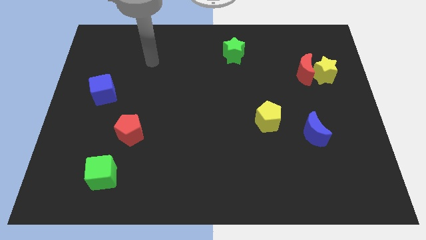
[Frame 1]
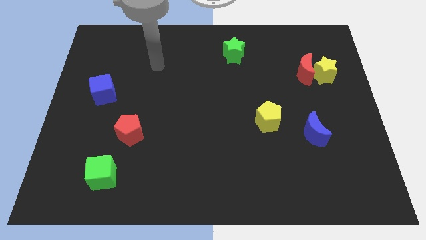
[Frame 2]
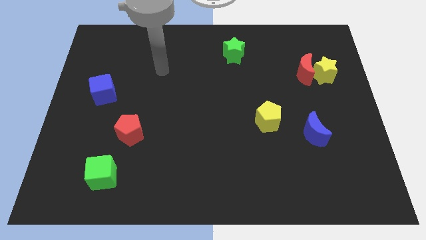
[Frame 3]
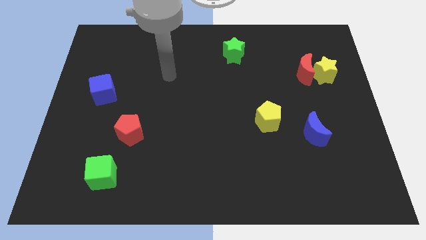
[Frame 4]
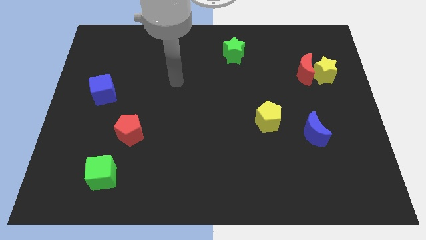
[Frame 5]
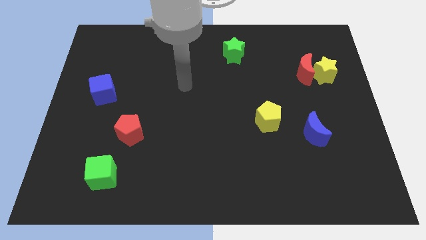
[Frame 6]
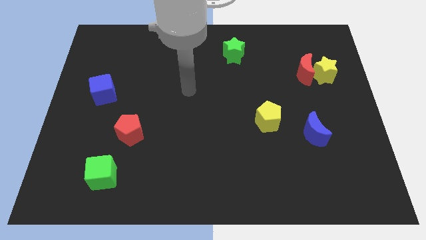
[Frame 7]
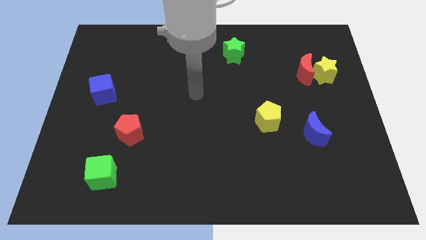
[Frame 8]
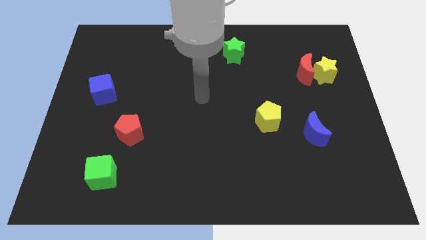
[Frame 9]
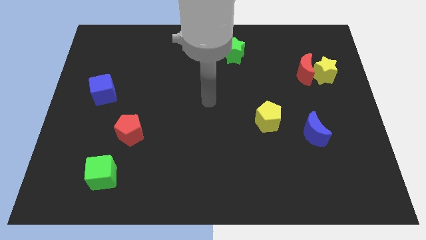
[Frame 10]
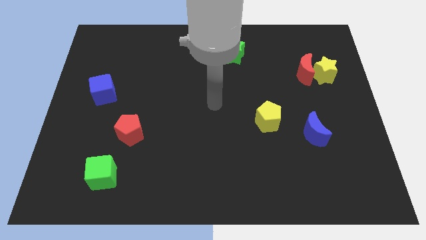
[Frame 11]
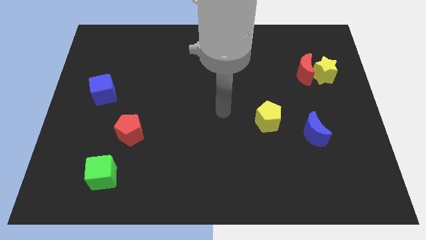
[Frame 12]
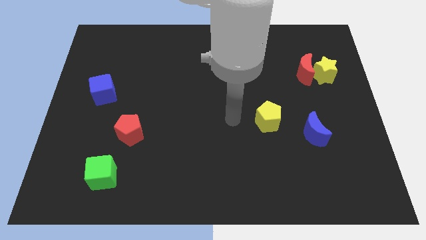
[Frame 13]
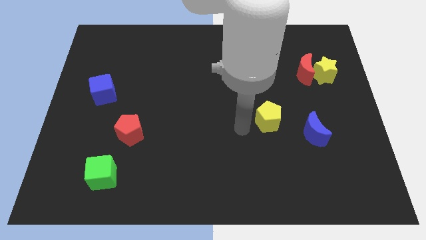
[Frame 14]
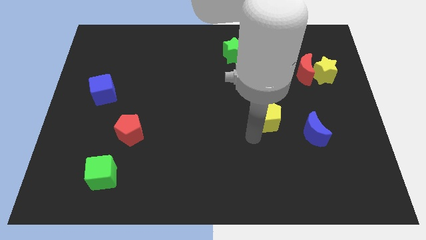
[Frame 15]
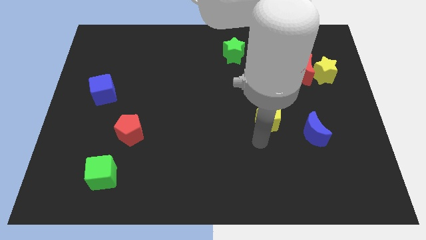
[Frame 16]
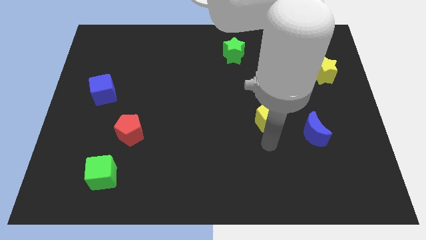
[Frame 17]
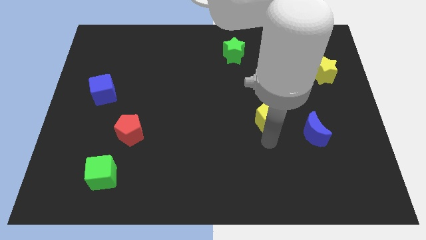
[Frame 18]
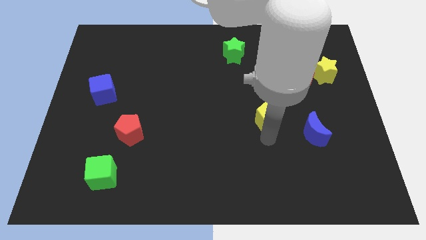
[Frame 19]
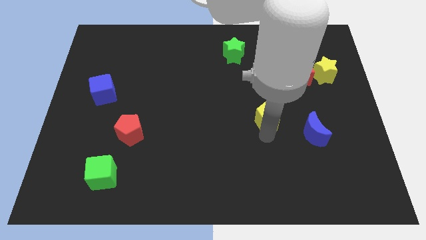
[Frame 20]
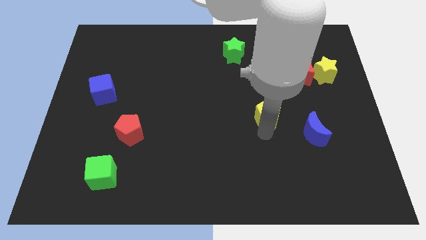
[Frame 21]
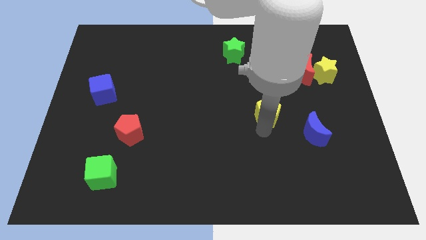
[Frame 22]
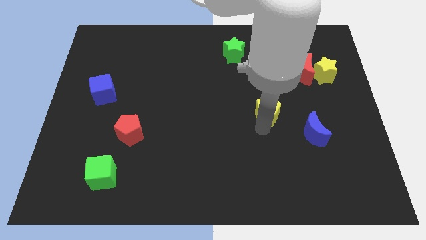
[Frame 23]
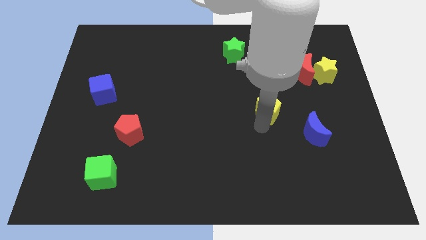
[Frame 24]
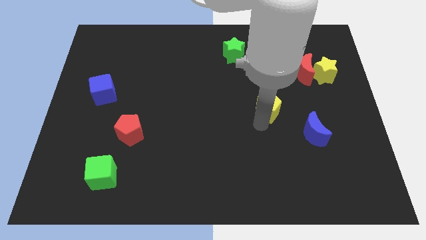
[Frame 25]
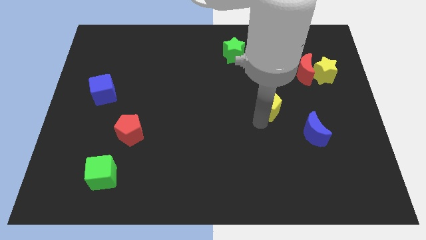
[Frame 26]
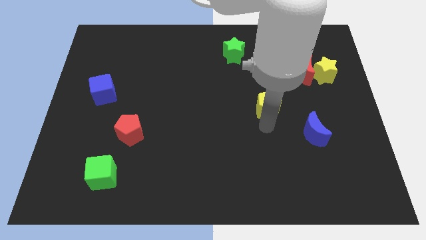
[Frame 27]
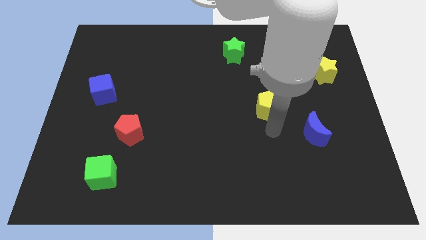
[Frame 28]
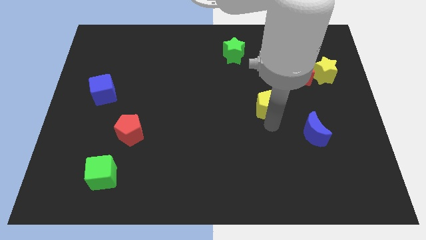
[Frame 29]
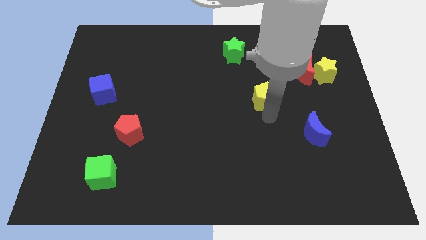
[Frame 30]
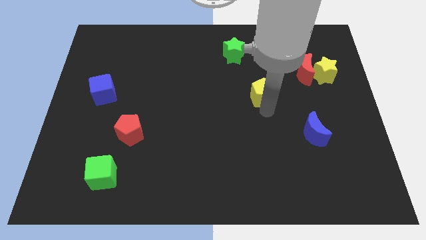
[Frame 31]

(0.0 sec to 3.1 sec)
move the yellow pentagon slightly up

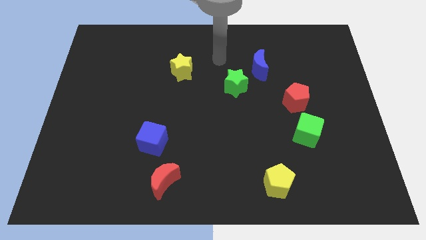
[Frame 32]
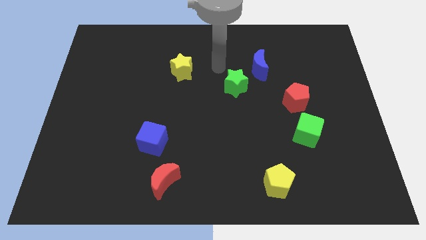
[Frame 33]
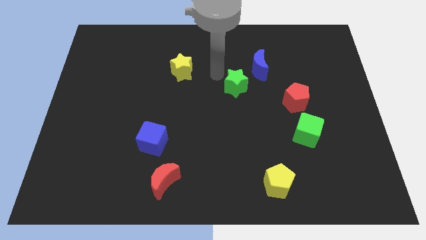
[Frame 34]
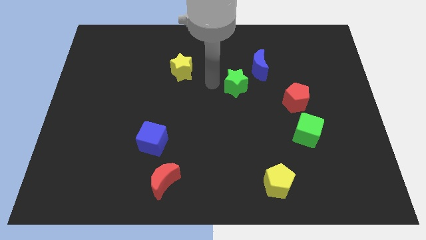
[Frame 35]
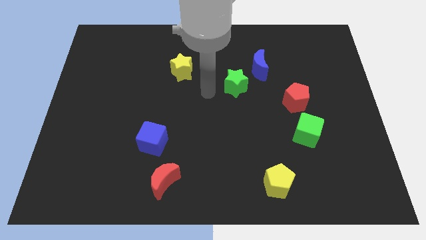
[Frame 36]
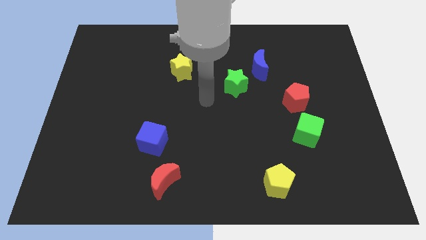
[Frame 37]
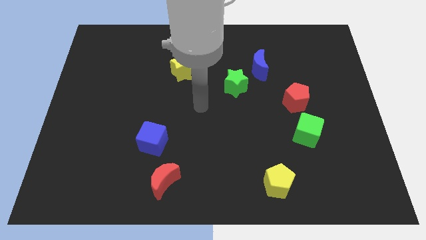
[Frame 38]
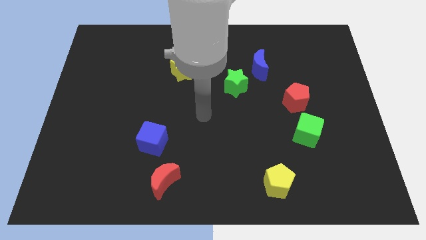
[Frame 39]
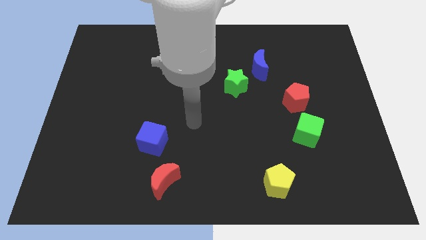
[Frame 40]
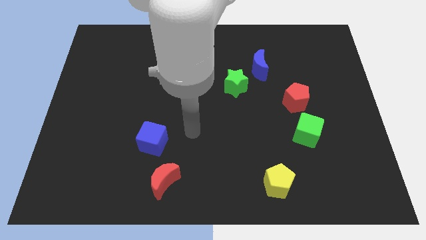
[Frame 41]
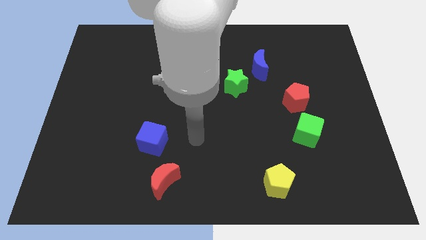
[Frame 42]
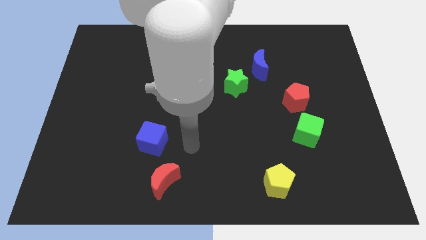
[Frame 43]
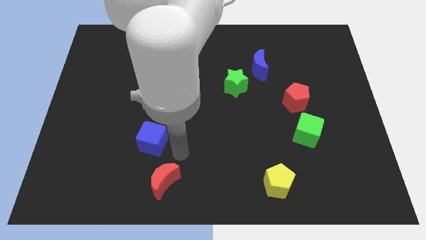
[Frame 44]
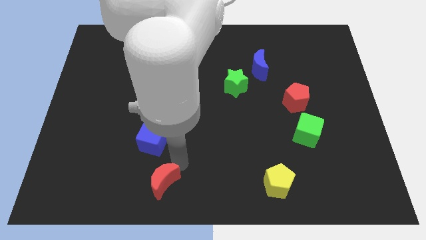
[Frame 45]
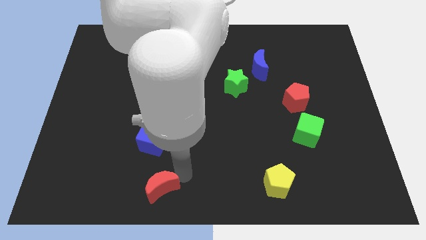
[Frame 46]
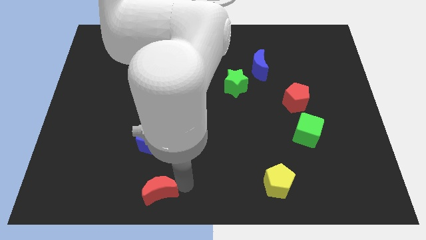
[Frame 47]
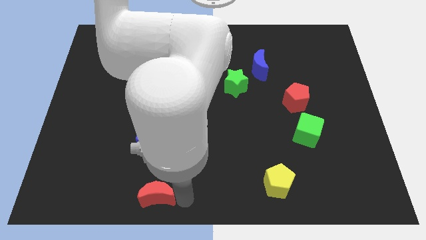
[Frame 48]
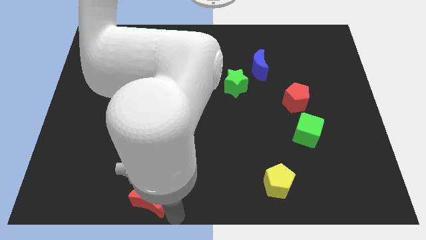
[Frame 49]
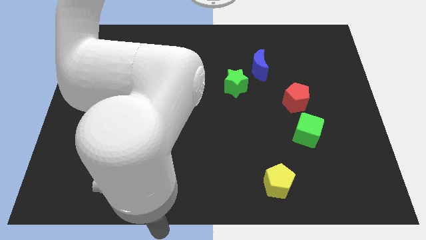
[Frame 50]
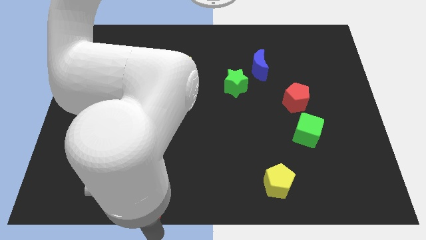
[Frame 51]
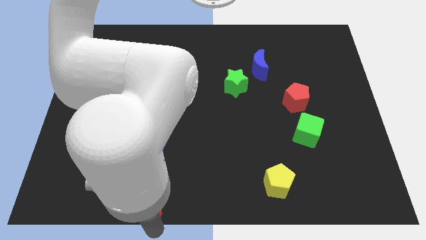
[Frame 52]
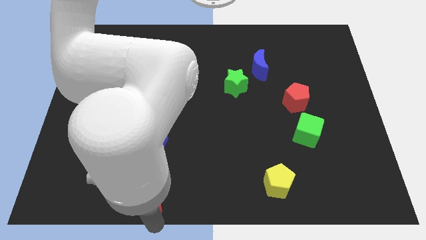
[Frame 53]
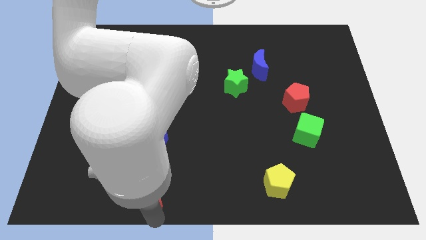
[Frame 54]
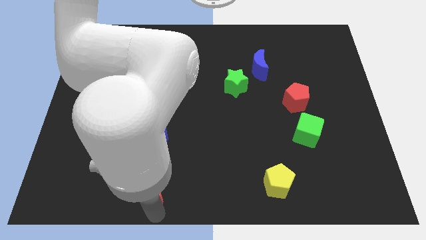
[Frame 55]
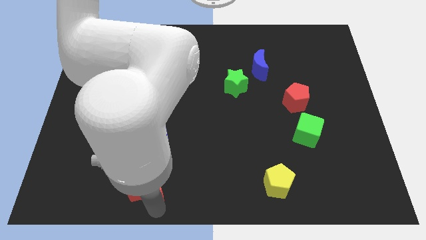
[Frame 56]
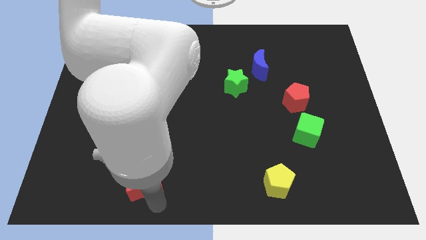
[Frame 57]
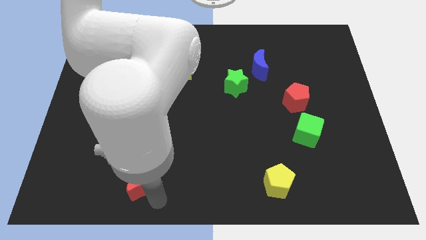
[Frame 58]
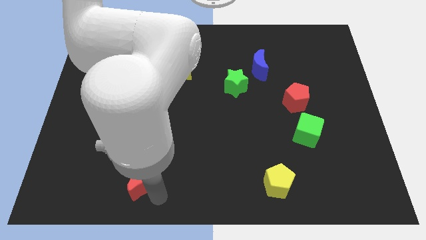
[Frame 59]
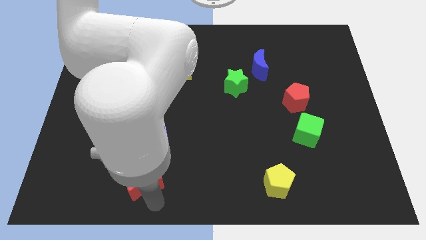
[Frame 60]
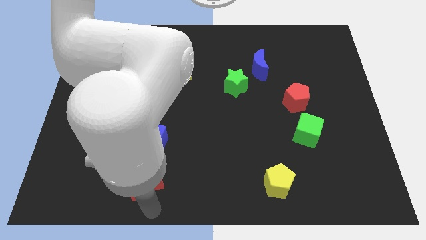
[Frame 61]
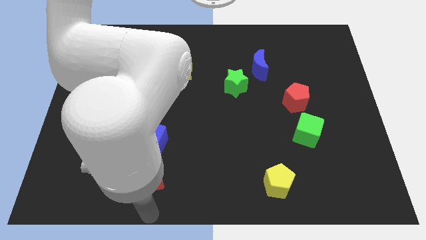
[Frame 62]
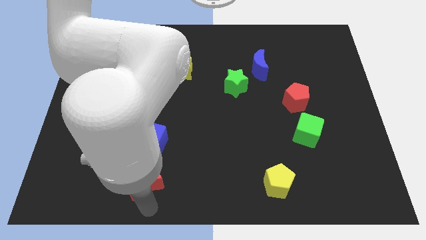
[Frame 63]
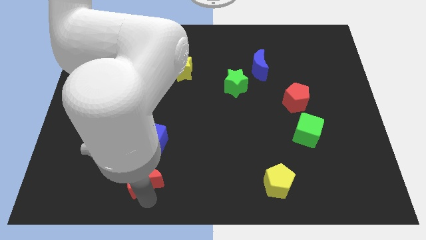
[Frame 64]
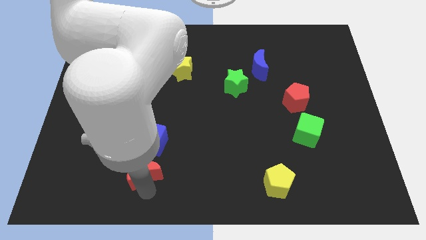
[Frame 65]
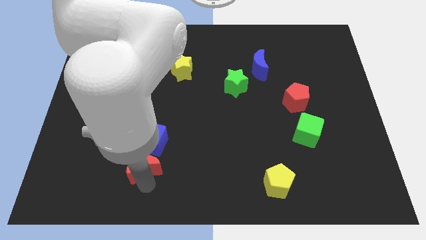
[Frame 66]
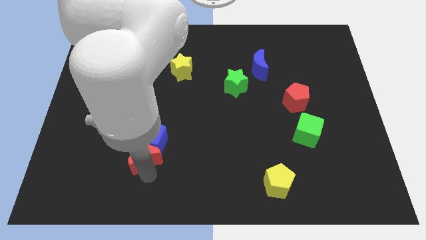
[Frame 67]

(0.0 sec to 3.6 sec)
slide the red moon a little upwards and left

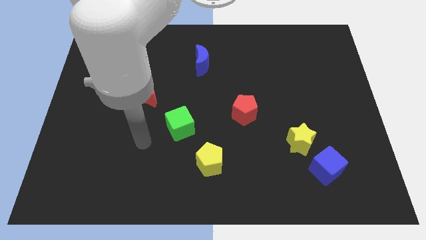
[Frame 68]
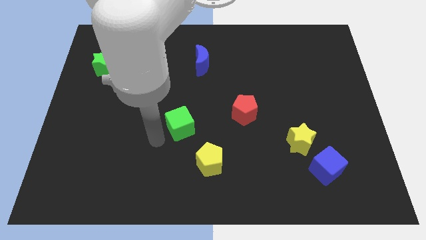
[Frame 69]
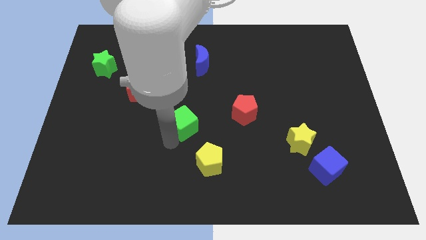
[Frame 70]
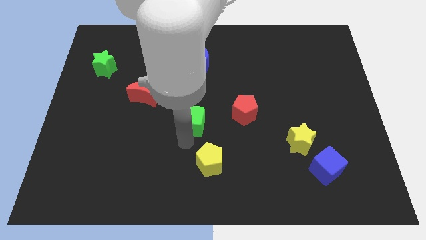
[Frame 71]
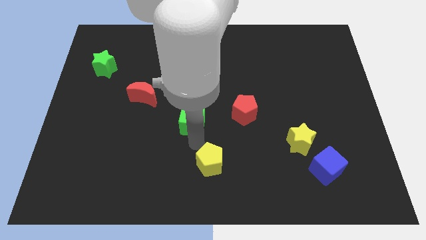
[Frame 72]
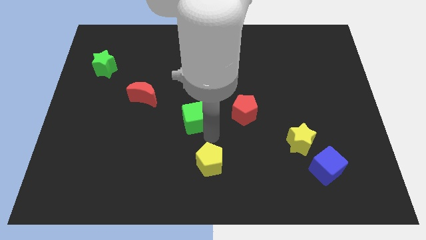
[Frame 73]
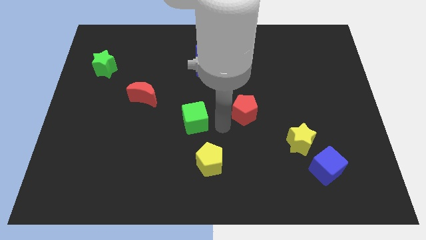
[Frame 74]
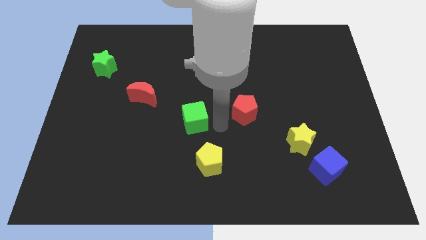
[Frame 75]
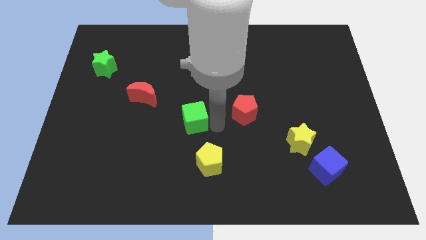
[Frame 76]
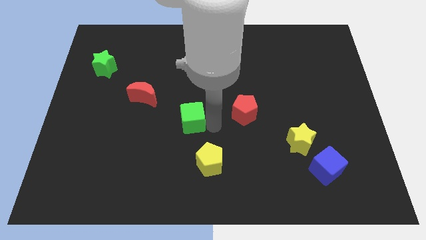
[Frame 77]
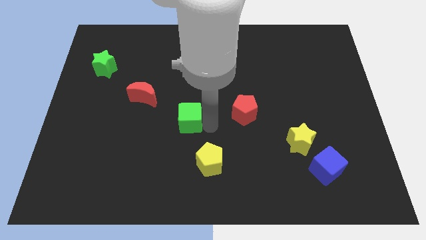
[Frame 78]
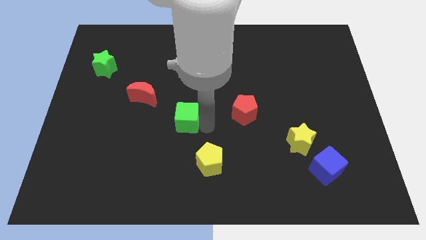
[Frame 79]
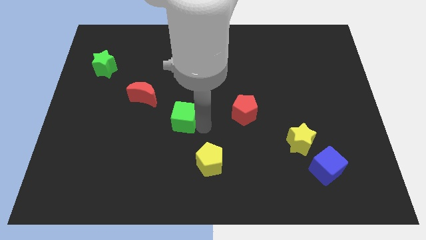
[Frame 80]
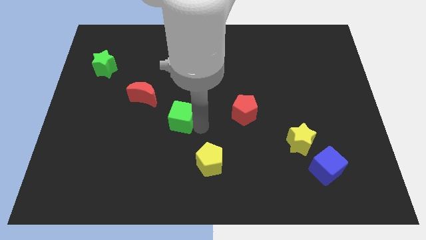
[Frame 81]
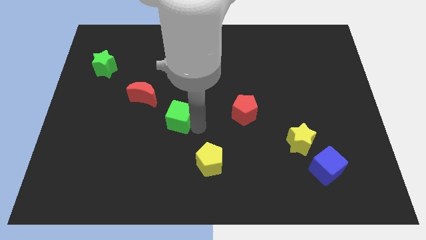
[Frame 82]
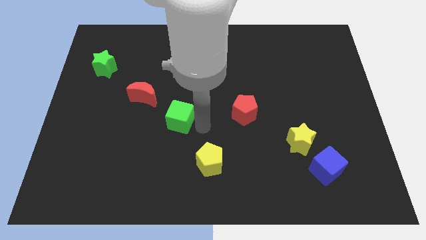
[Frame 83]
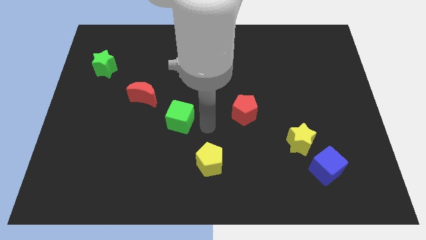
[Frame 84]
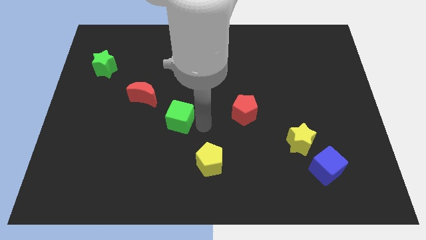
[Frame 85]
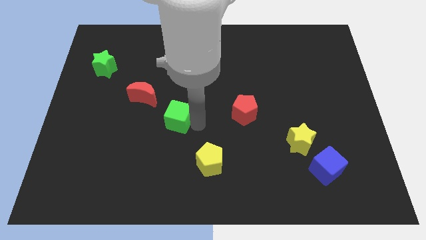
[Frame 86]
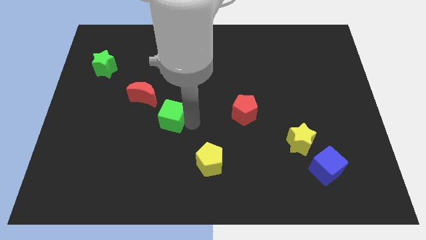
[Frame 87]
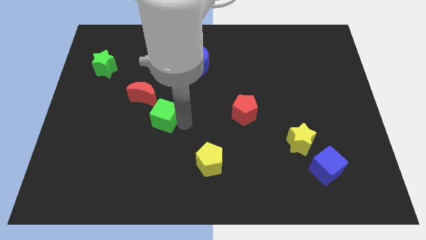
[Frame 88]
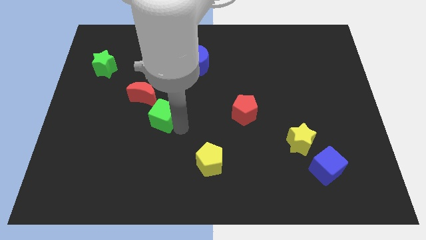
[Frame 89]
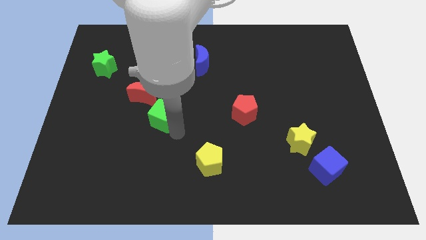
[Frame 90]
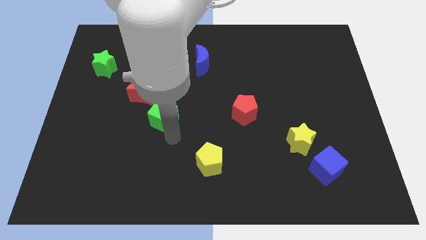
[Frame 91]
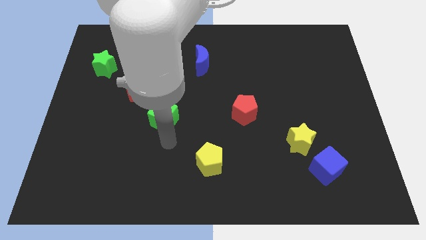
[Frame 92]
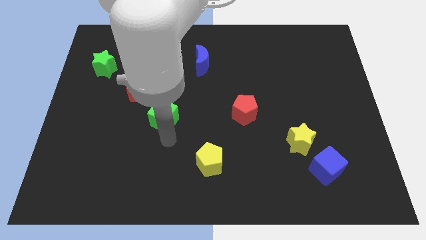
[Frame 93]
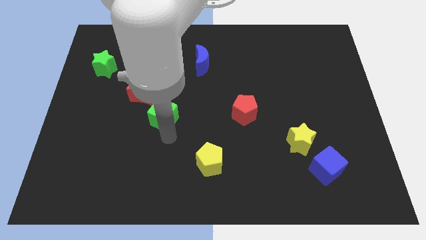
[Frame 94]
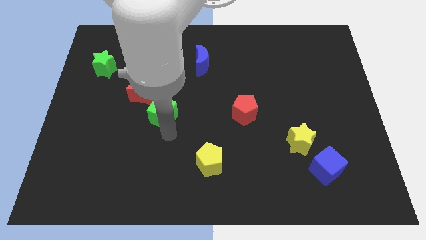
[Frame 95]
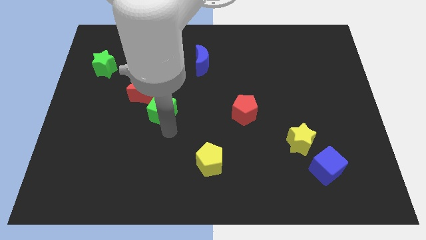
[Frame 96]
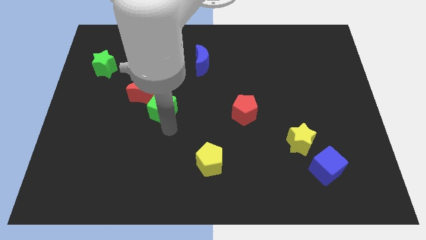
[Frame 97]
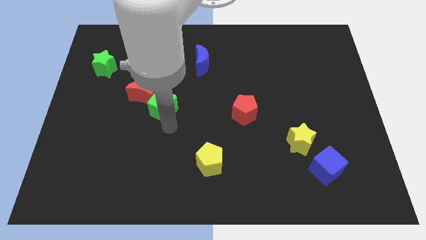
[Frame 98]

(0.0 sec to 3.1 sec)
slide the green cube a little bit up and left diagonally
